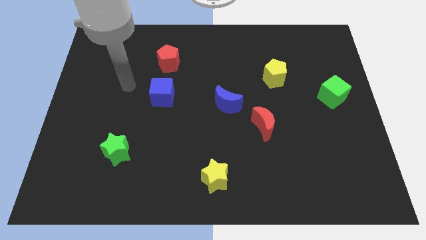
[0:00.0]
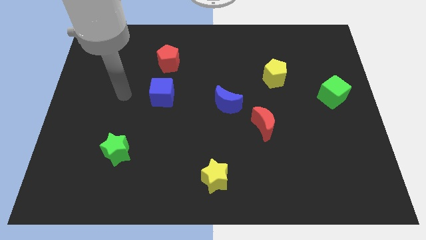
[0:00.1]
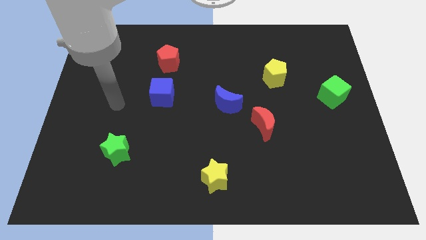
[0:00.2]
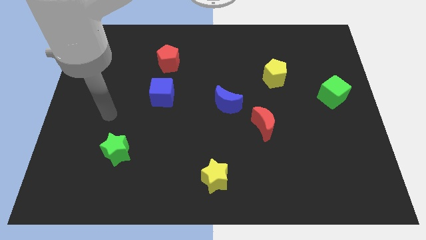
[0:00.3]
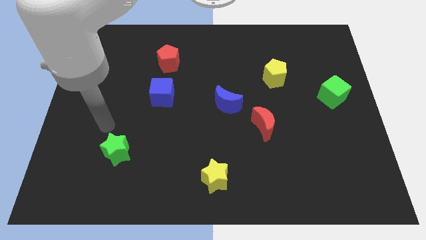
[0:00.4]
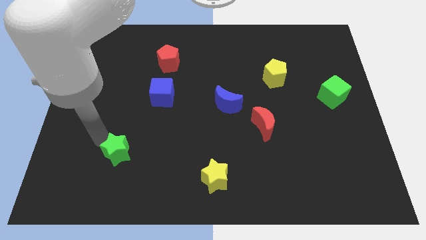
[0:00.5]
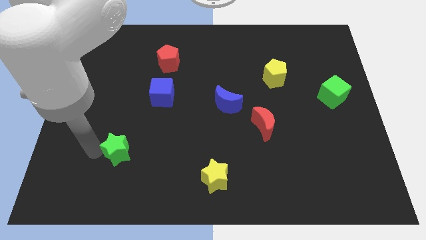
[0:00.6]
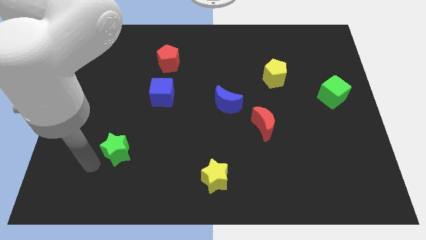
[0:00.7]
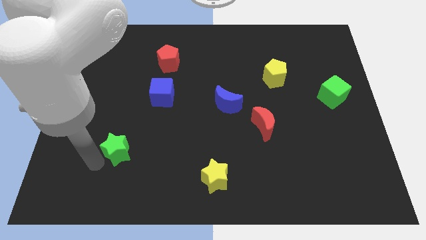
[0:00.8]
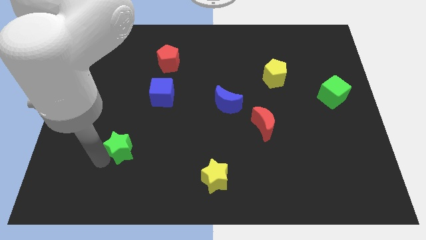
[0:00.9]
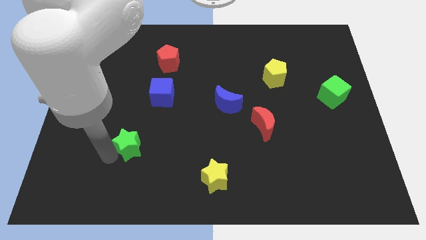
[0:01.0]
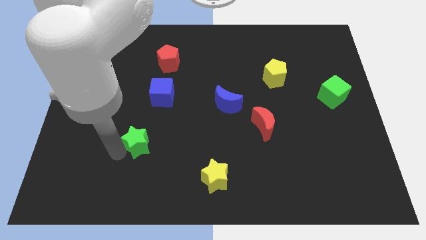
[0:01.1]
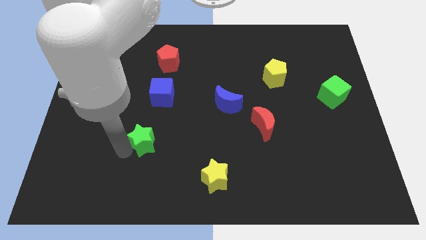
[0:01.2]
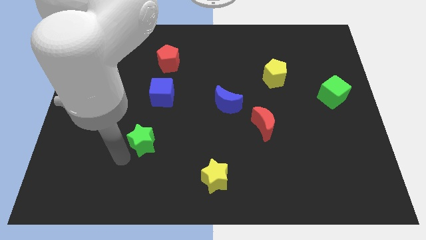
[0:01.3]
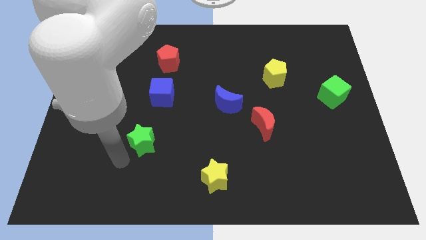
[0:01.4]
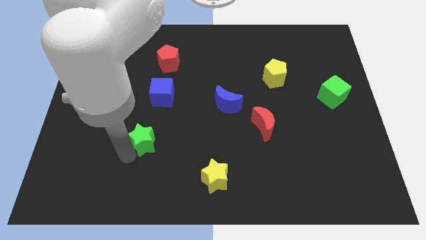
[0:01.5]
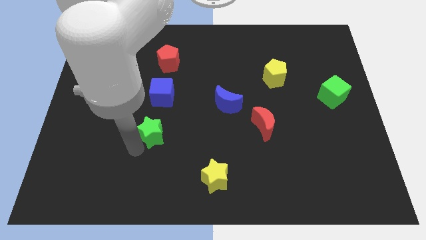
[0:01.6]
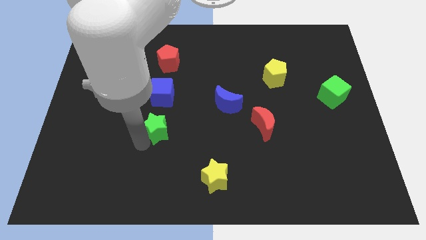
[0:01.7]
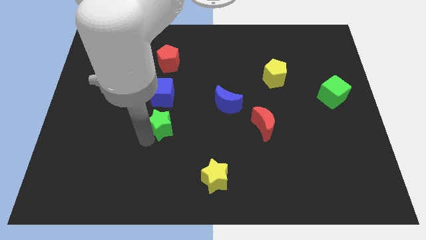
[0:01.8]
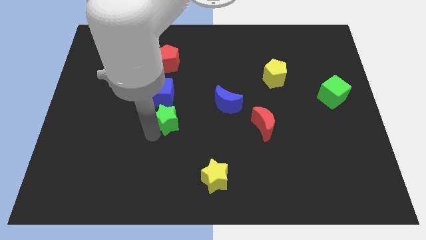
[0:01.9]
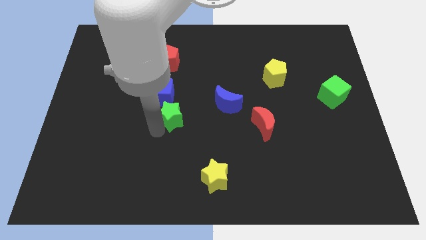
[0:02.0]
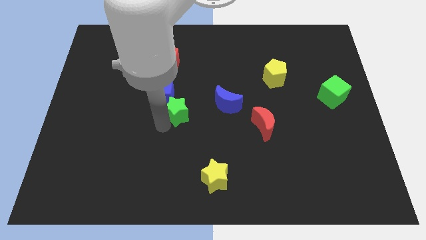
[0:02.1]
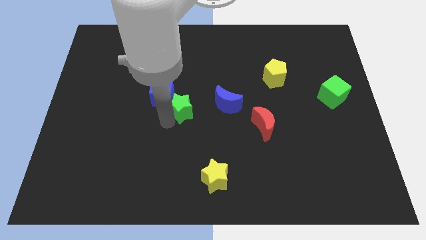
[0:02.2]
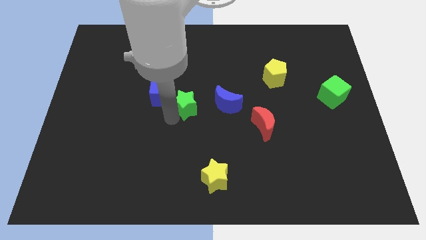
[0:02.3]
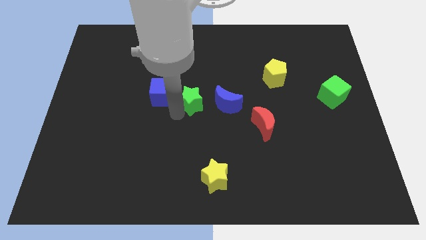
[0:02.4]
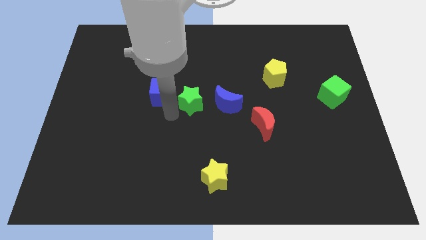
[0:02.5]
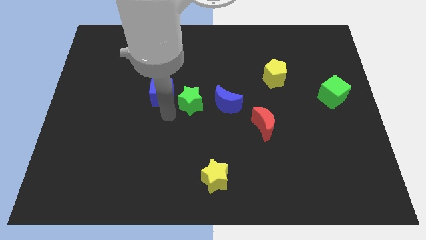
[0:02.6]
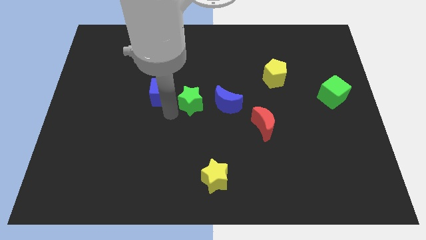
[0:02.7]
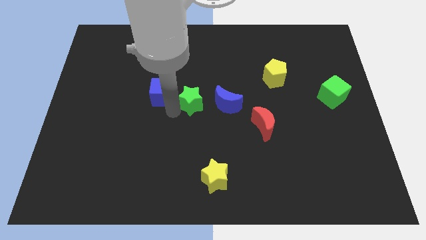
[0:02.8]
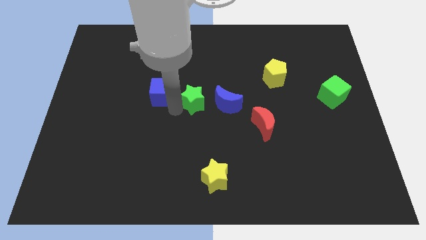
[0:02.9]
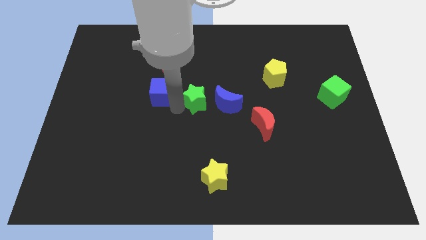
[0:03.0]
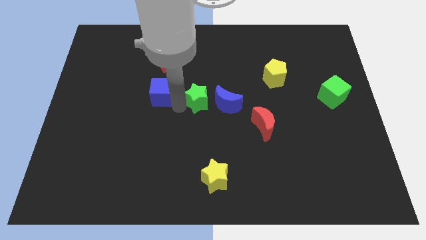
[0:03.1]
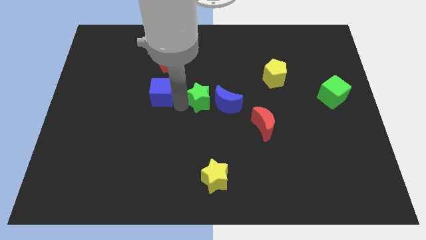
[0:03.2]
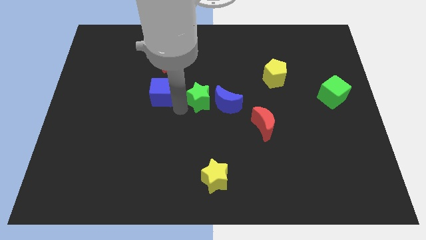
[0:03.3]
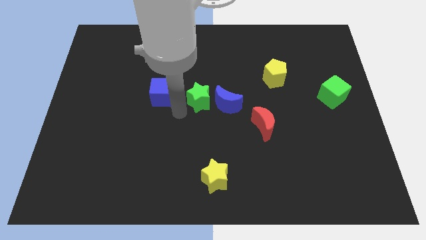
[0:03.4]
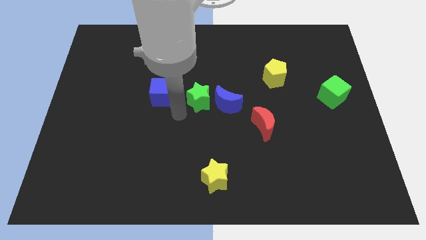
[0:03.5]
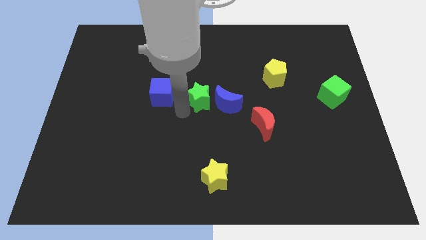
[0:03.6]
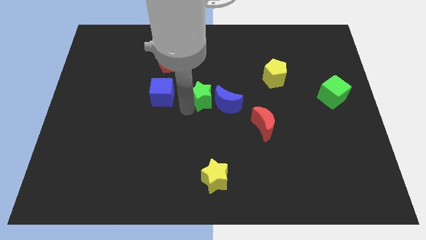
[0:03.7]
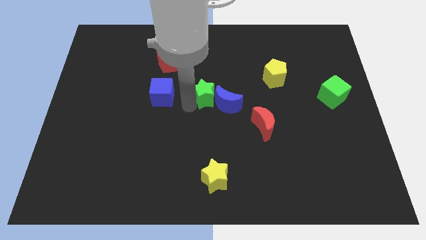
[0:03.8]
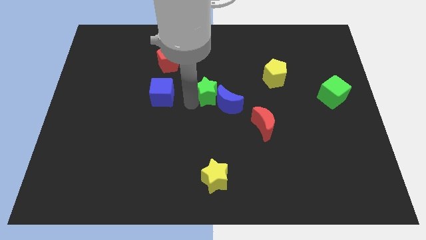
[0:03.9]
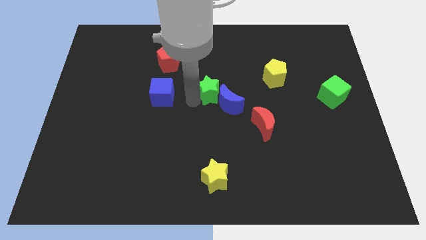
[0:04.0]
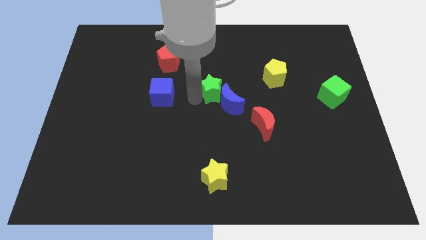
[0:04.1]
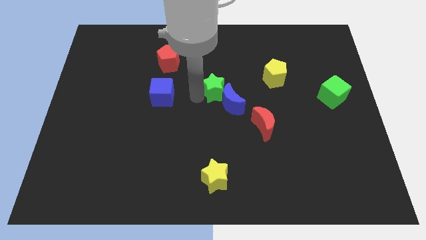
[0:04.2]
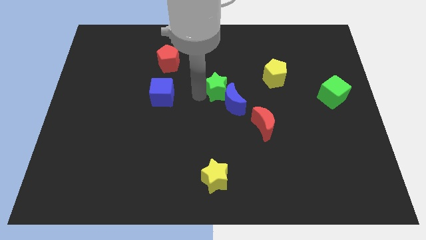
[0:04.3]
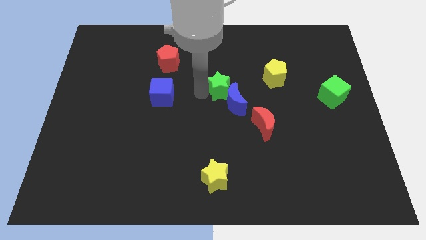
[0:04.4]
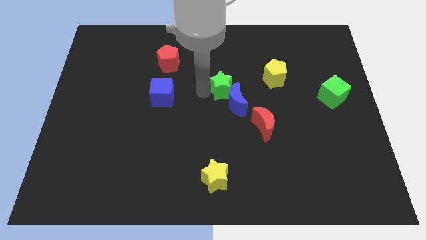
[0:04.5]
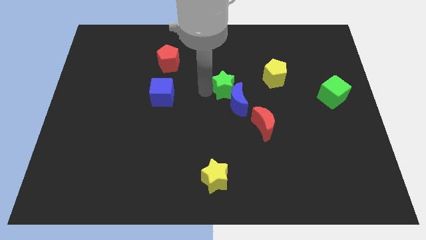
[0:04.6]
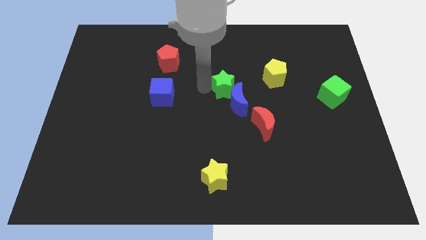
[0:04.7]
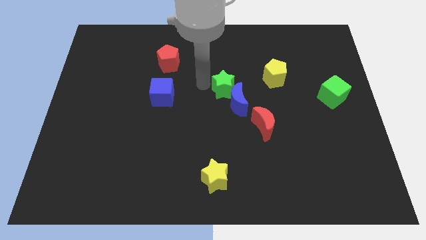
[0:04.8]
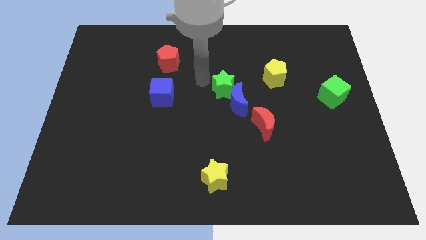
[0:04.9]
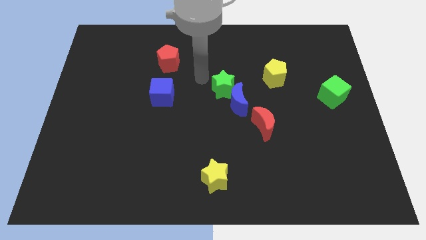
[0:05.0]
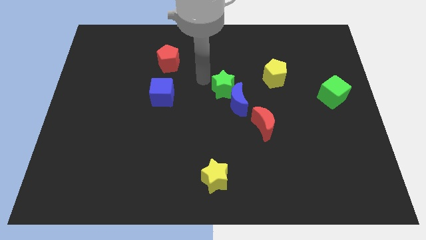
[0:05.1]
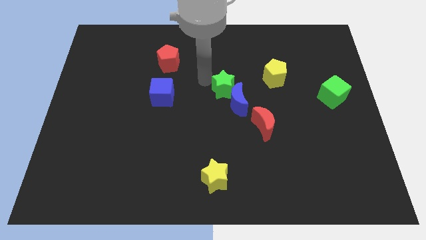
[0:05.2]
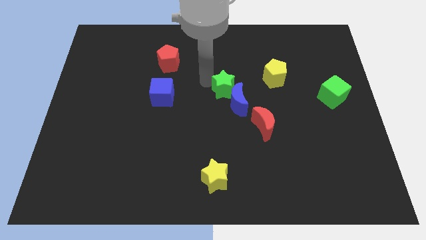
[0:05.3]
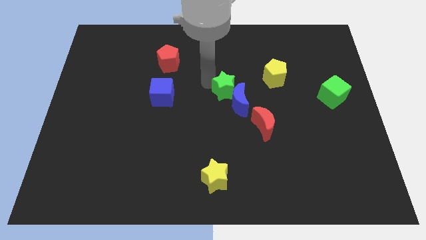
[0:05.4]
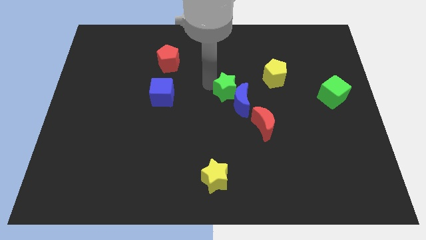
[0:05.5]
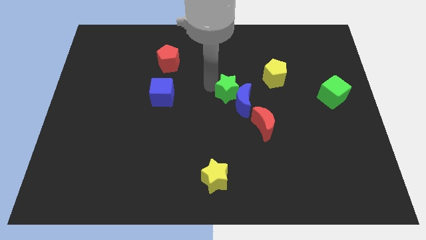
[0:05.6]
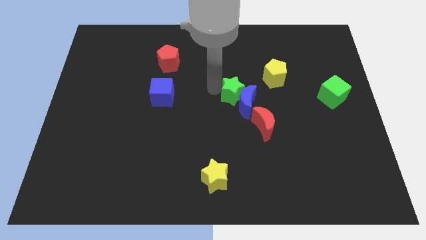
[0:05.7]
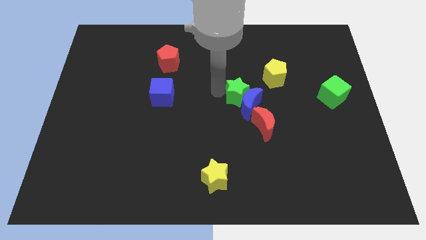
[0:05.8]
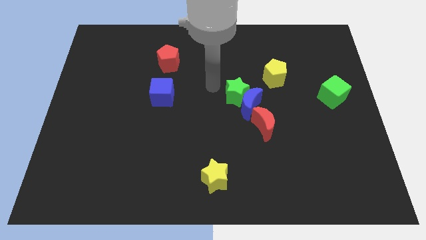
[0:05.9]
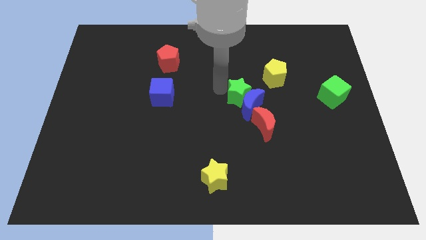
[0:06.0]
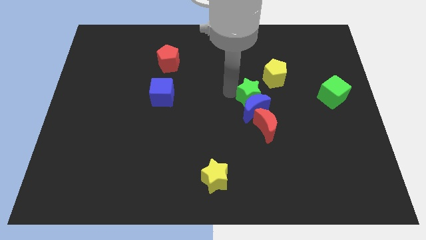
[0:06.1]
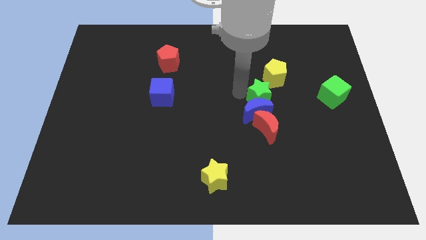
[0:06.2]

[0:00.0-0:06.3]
move the green star below the yellow pentagon
